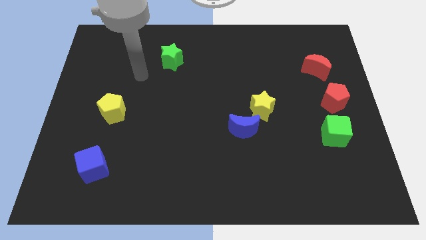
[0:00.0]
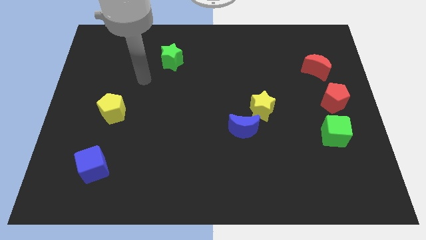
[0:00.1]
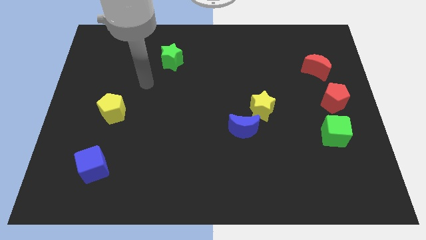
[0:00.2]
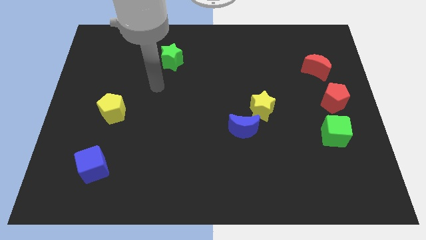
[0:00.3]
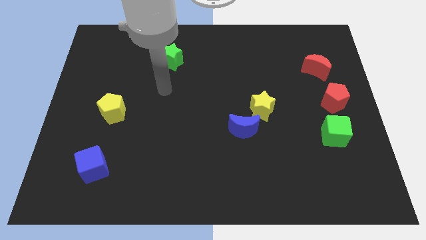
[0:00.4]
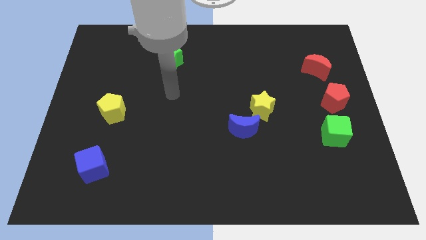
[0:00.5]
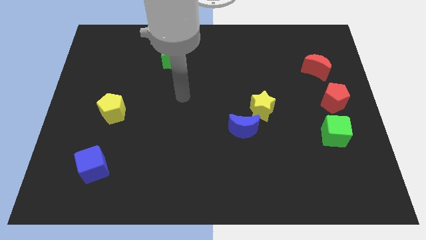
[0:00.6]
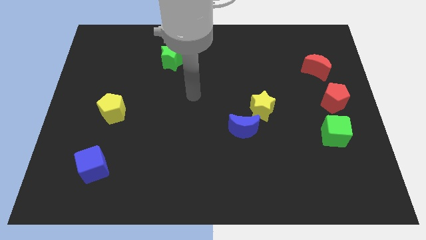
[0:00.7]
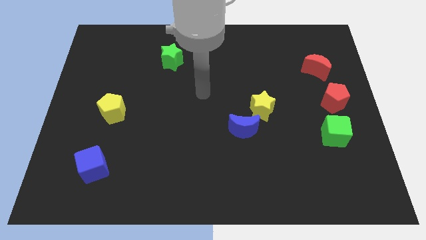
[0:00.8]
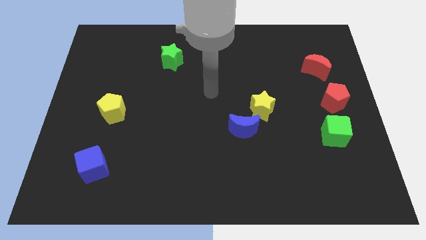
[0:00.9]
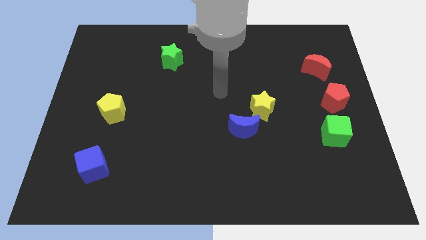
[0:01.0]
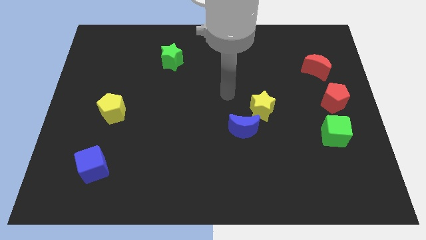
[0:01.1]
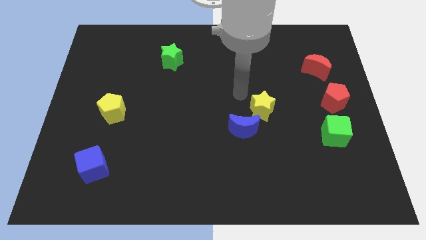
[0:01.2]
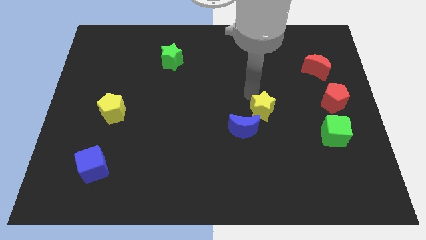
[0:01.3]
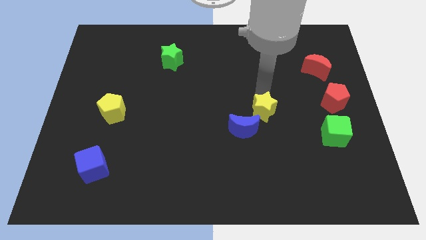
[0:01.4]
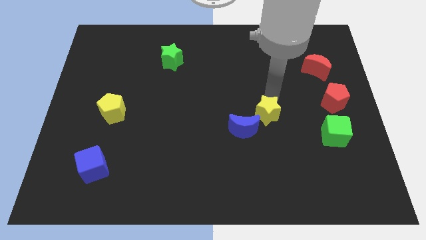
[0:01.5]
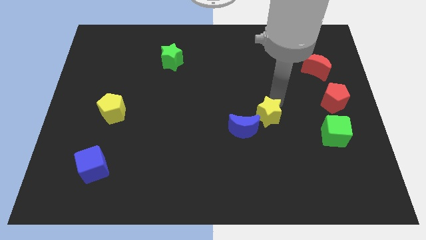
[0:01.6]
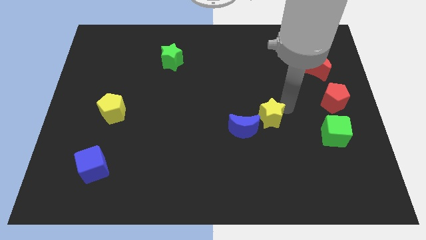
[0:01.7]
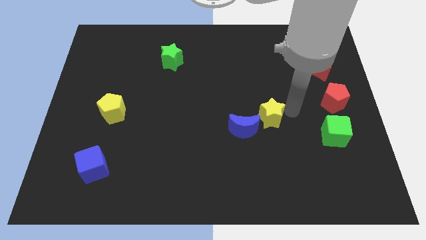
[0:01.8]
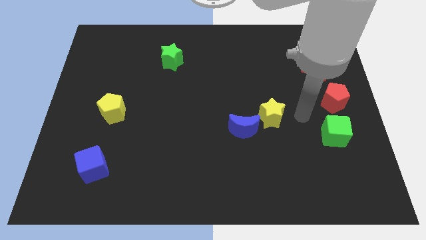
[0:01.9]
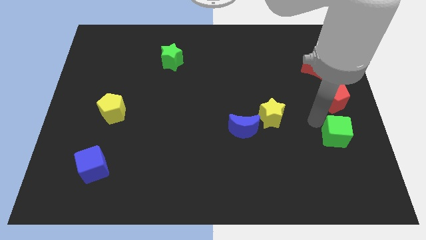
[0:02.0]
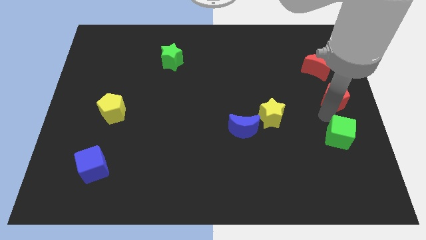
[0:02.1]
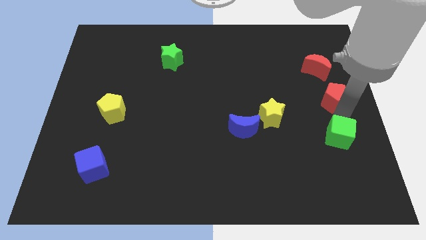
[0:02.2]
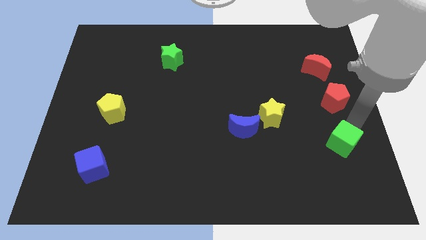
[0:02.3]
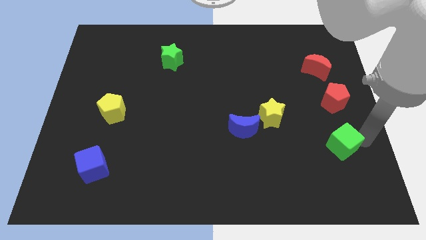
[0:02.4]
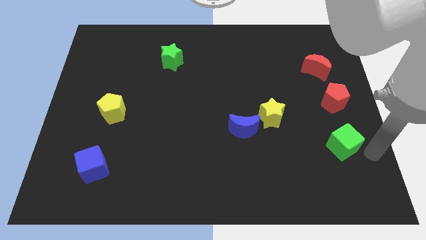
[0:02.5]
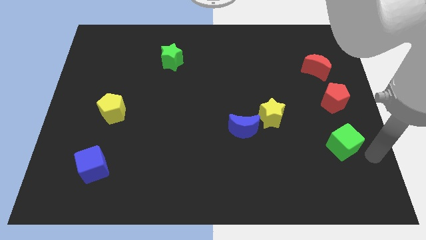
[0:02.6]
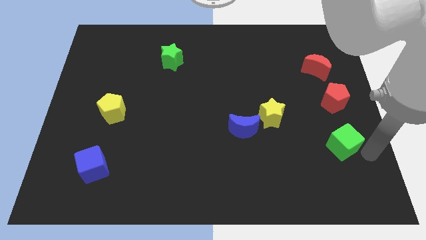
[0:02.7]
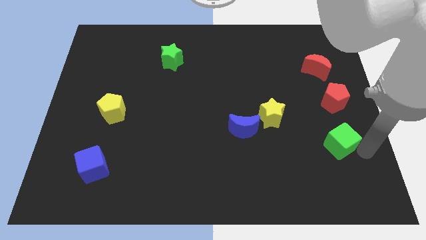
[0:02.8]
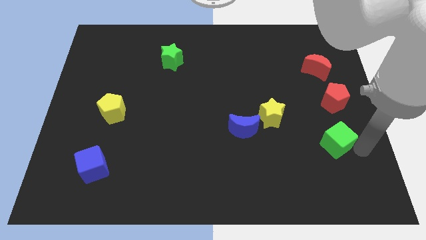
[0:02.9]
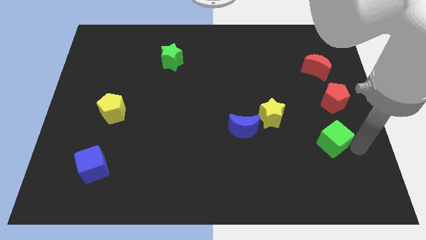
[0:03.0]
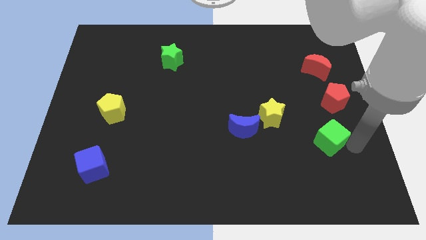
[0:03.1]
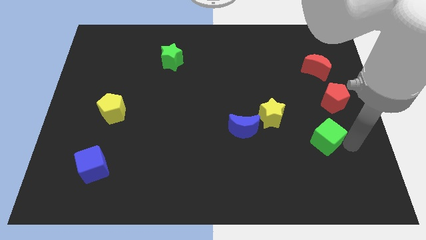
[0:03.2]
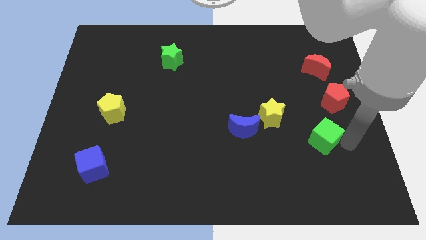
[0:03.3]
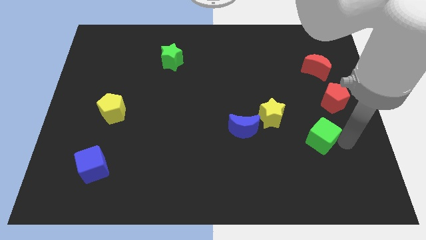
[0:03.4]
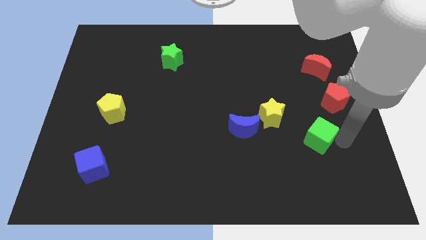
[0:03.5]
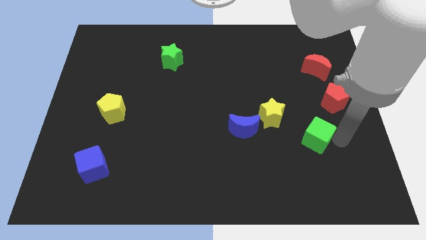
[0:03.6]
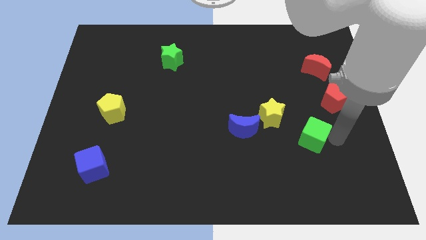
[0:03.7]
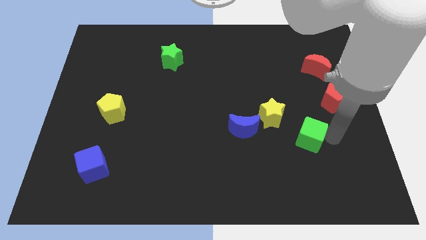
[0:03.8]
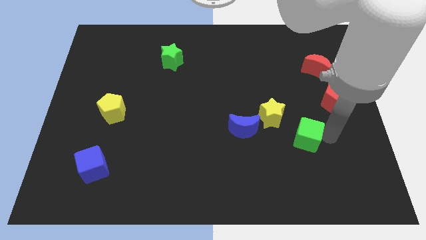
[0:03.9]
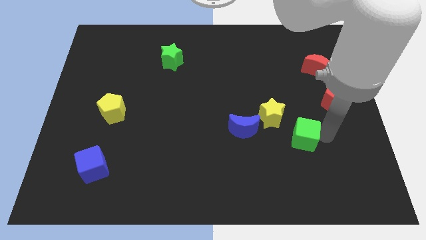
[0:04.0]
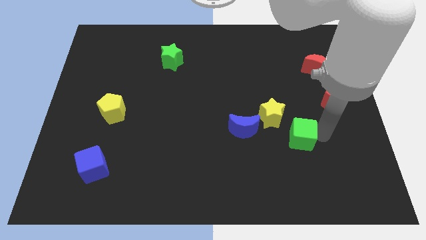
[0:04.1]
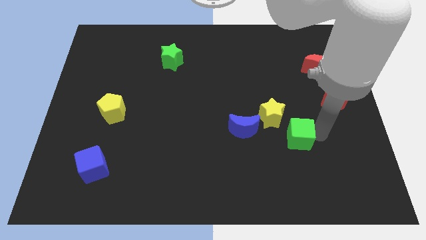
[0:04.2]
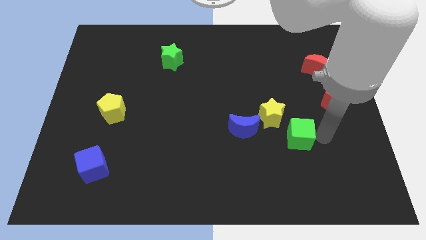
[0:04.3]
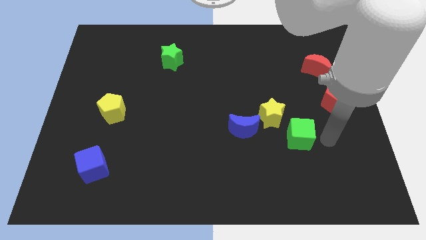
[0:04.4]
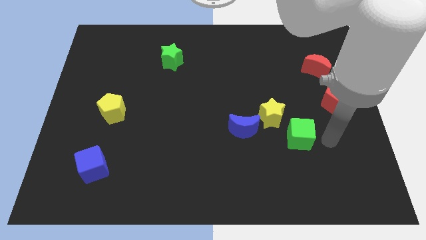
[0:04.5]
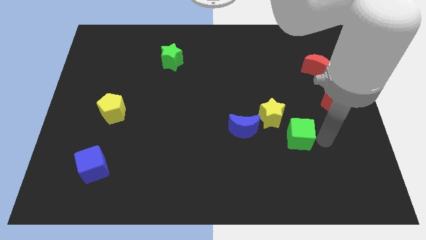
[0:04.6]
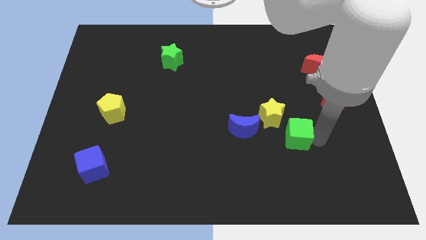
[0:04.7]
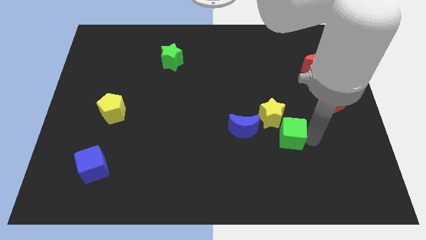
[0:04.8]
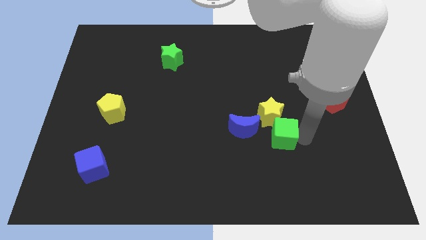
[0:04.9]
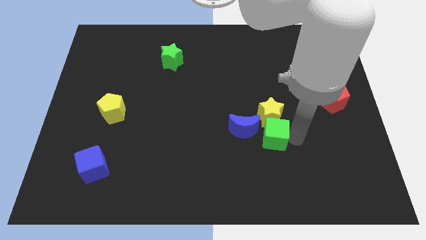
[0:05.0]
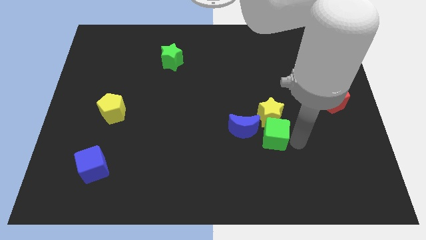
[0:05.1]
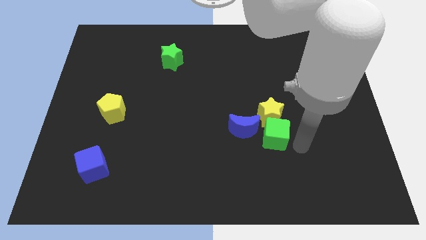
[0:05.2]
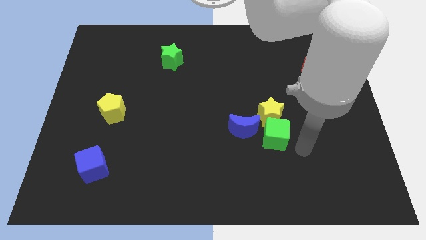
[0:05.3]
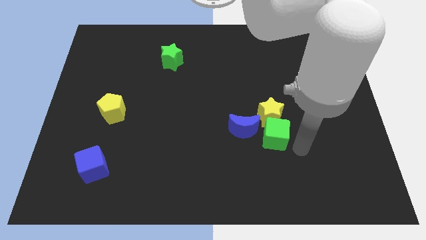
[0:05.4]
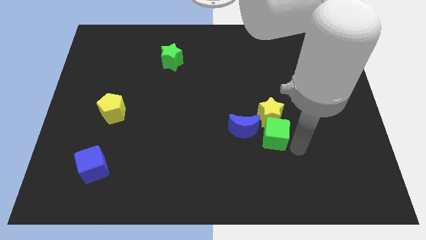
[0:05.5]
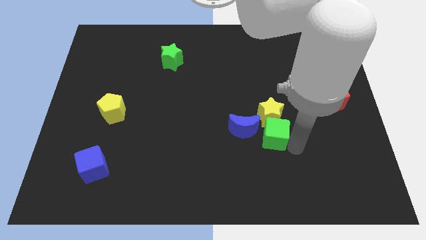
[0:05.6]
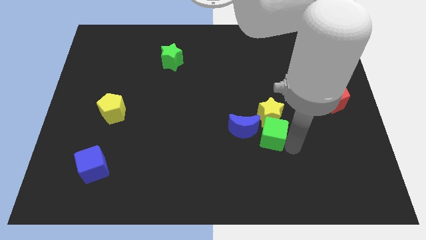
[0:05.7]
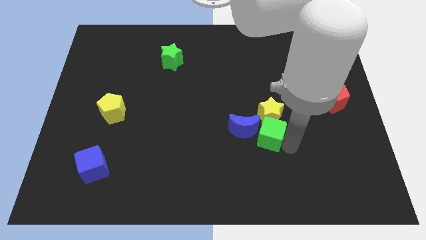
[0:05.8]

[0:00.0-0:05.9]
slide the green cube to the blue moon

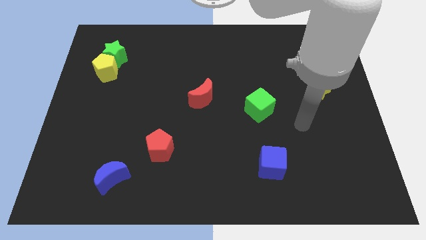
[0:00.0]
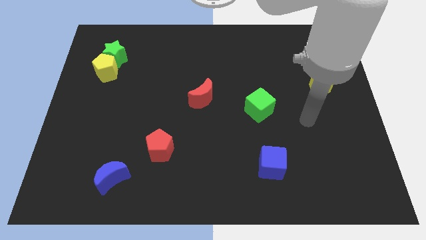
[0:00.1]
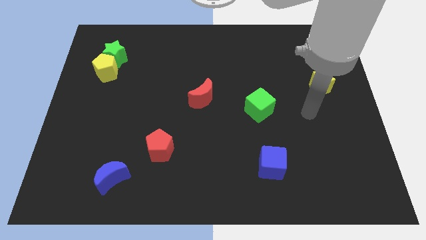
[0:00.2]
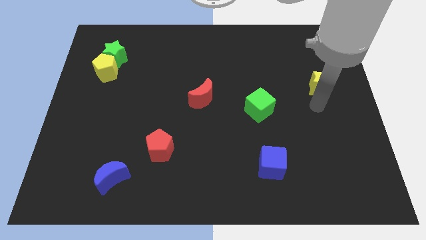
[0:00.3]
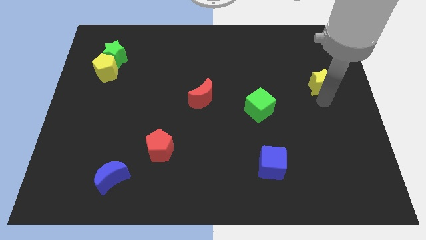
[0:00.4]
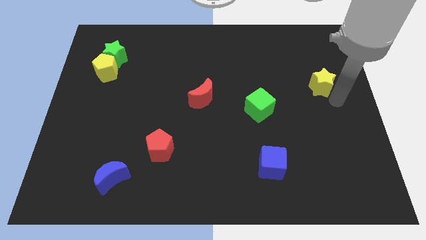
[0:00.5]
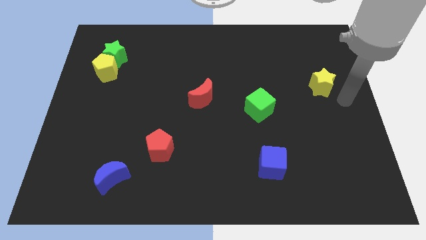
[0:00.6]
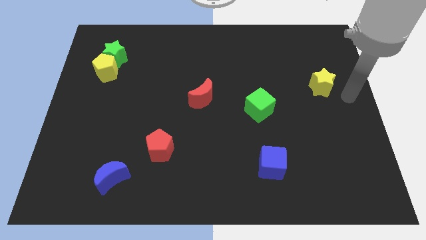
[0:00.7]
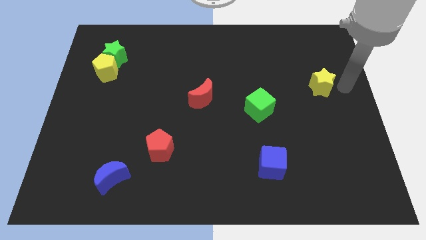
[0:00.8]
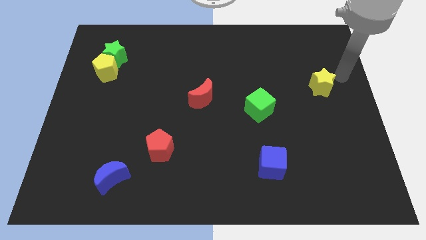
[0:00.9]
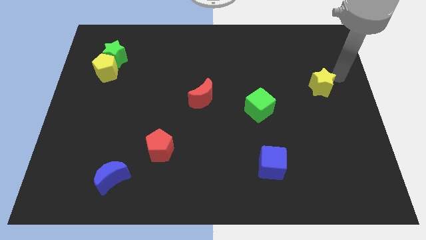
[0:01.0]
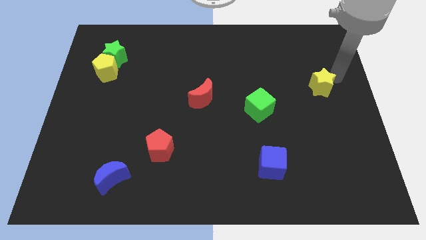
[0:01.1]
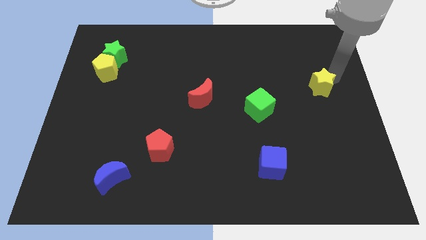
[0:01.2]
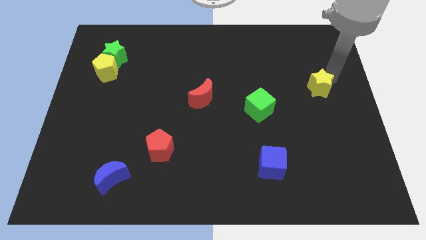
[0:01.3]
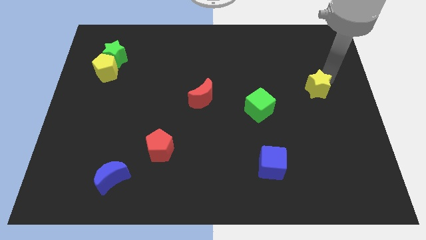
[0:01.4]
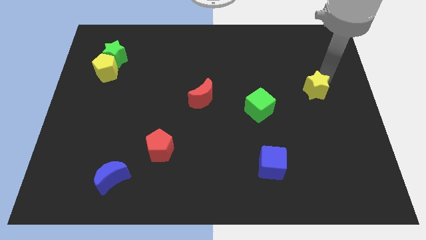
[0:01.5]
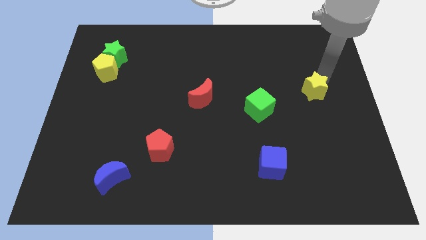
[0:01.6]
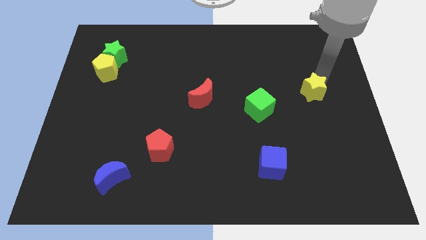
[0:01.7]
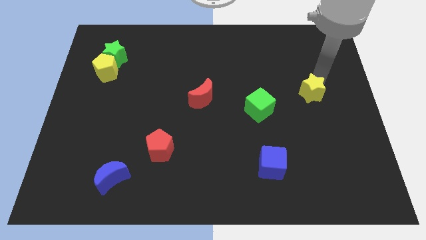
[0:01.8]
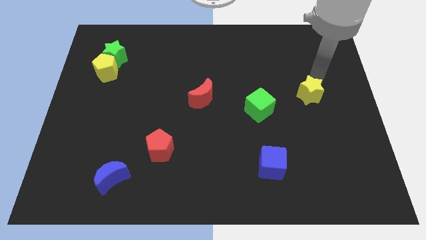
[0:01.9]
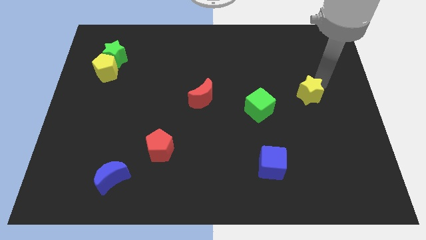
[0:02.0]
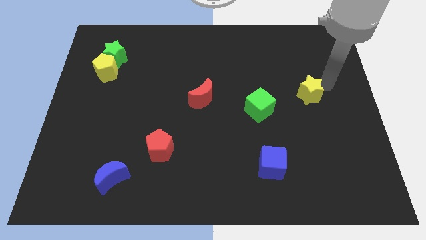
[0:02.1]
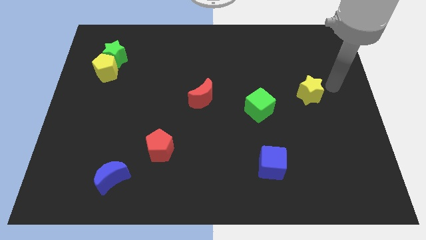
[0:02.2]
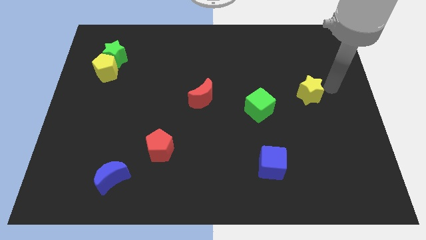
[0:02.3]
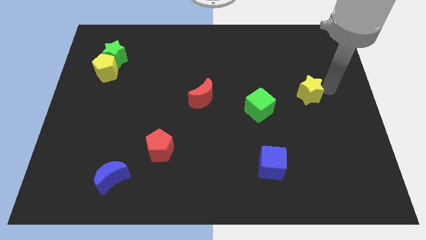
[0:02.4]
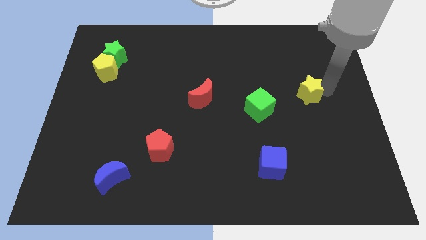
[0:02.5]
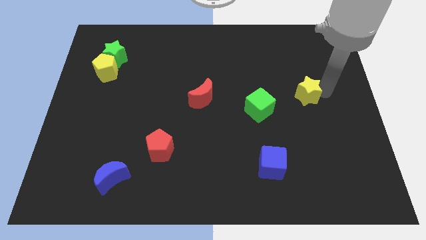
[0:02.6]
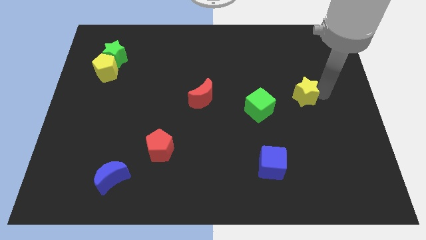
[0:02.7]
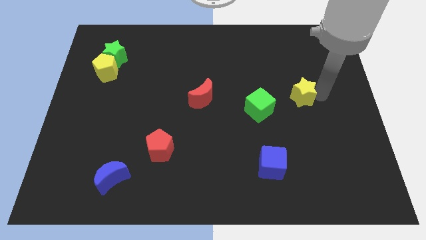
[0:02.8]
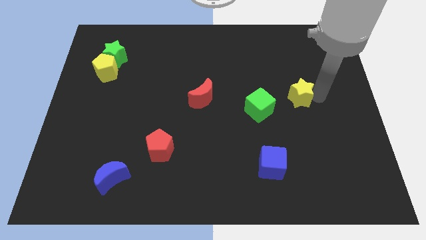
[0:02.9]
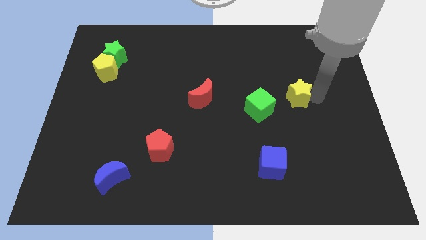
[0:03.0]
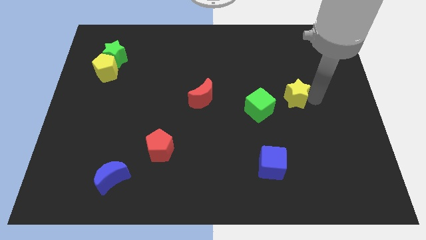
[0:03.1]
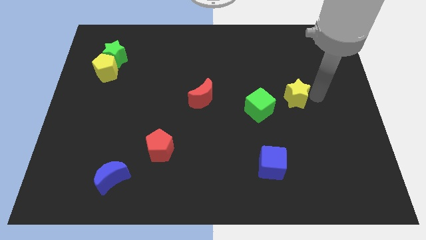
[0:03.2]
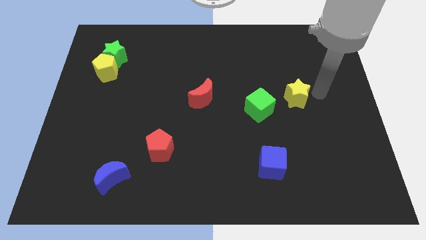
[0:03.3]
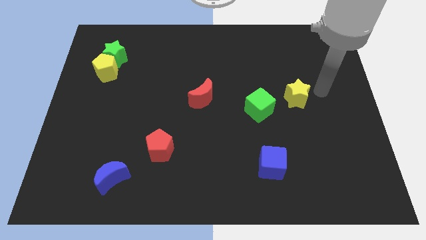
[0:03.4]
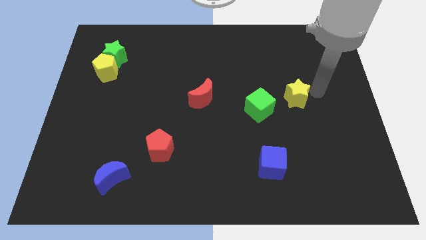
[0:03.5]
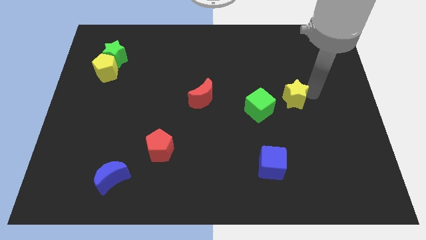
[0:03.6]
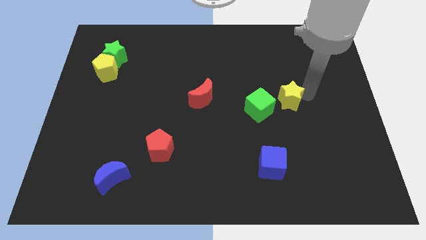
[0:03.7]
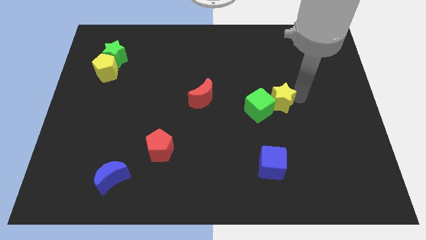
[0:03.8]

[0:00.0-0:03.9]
put the yellow star to the green cube
